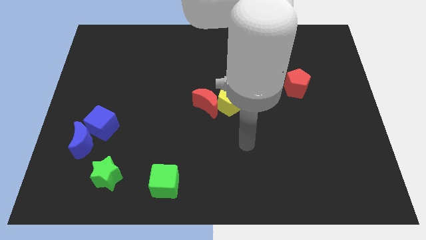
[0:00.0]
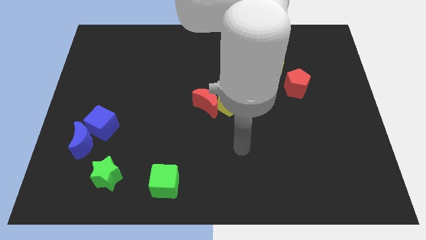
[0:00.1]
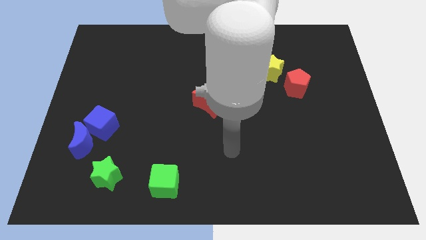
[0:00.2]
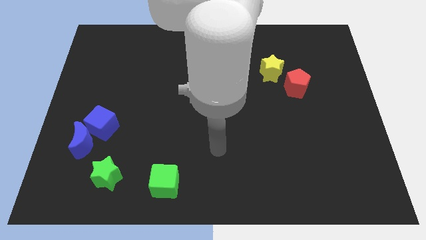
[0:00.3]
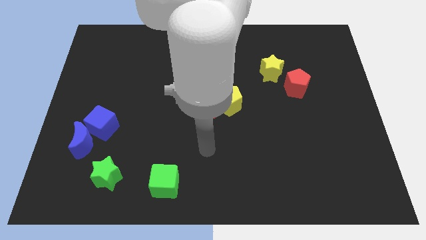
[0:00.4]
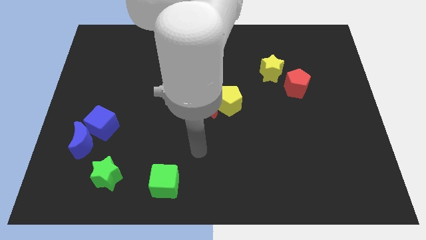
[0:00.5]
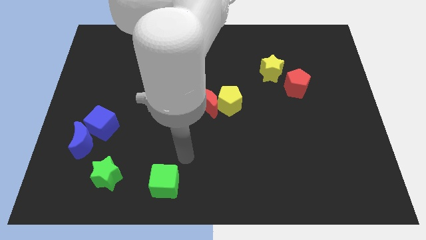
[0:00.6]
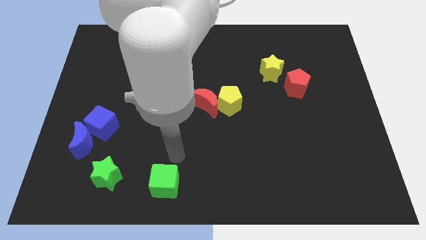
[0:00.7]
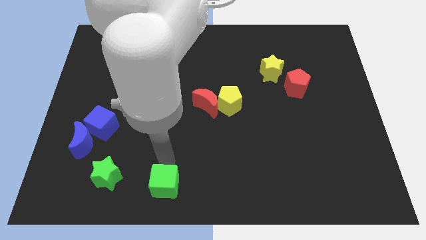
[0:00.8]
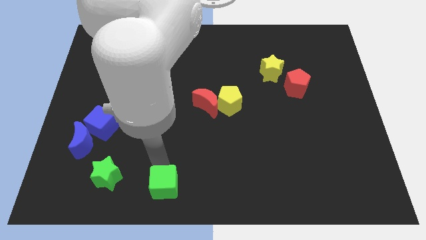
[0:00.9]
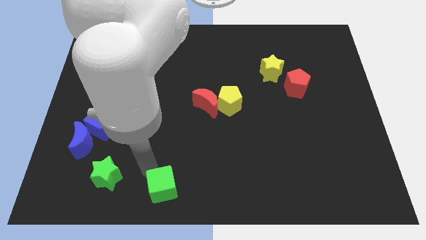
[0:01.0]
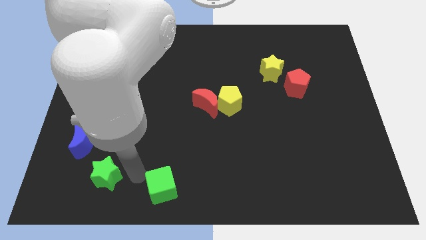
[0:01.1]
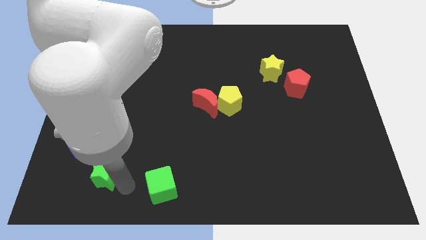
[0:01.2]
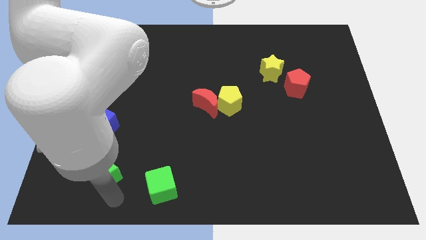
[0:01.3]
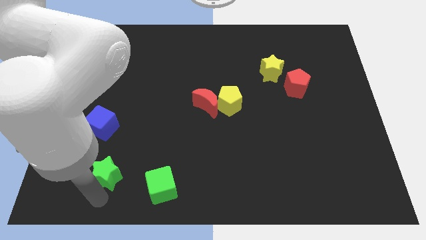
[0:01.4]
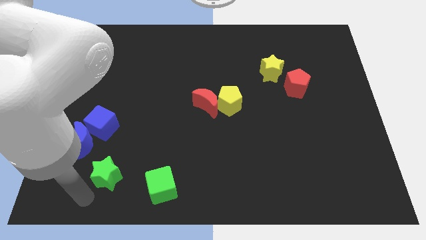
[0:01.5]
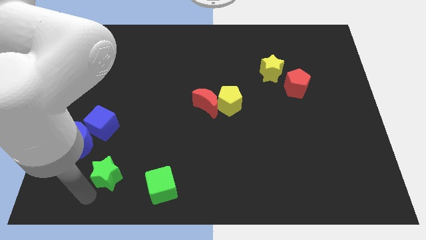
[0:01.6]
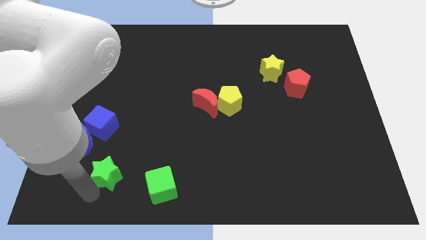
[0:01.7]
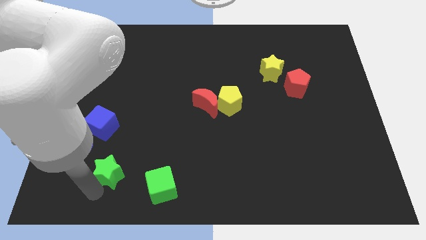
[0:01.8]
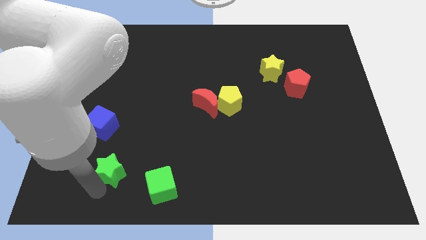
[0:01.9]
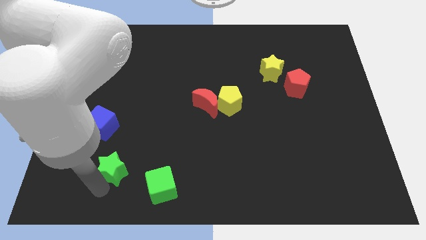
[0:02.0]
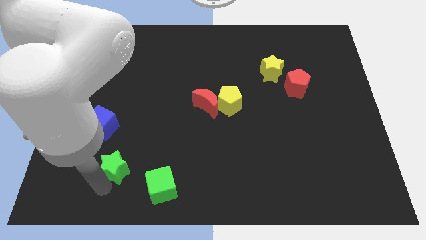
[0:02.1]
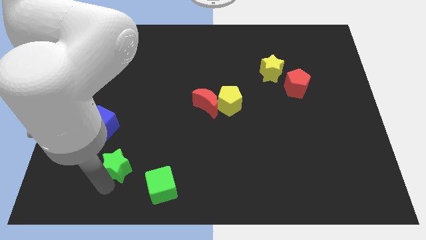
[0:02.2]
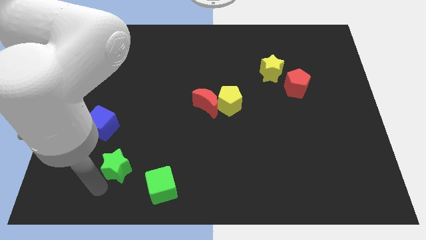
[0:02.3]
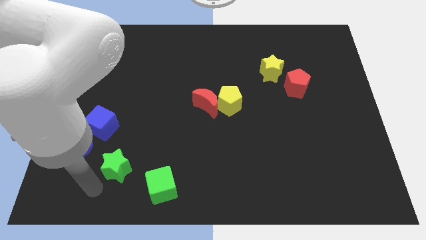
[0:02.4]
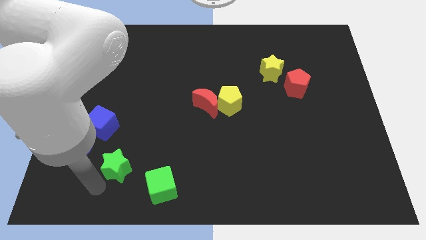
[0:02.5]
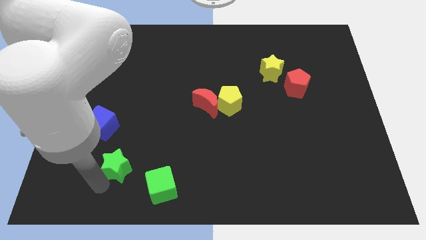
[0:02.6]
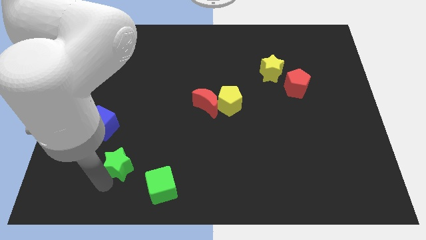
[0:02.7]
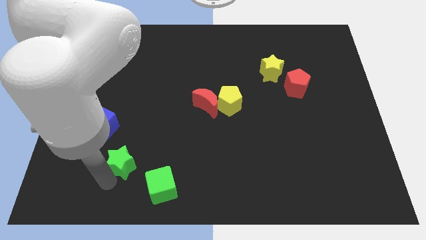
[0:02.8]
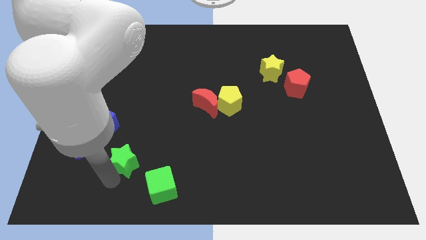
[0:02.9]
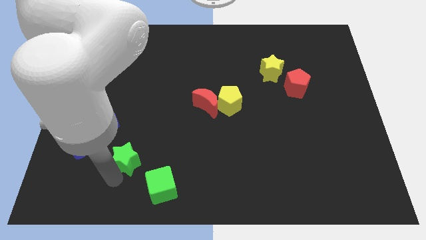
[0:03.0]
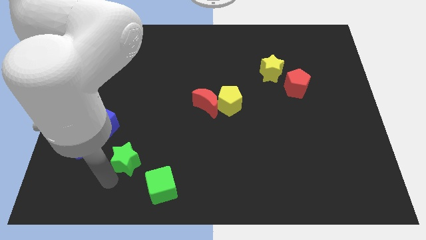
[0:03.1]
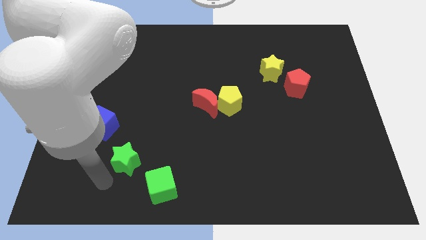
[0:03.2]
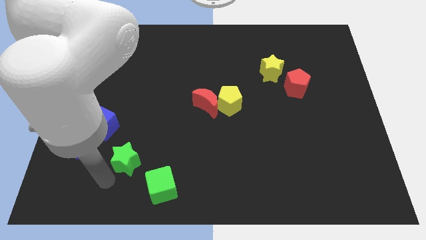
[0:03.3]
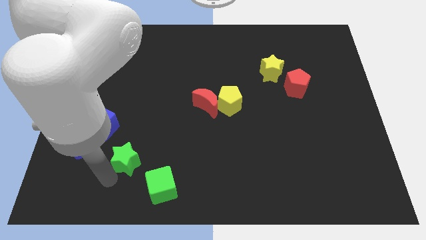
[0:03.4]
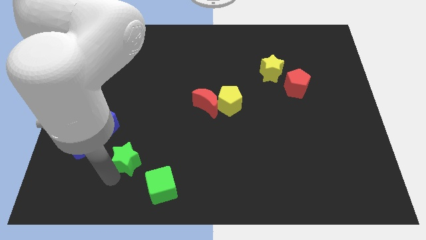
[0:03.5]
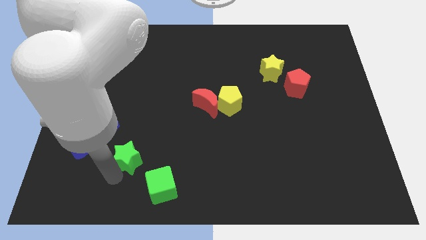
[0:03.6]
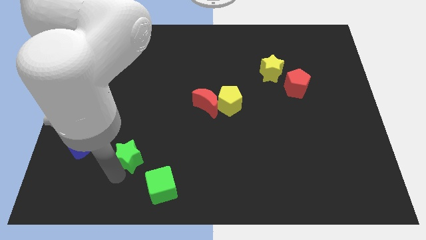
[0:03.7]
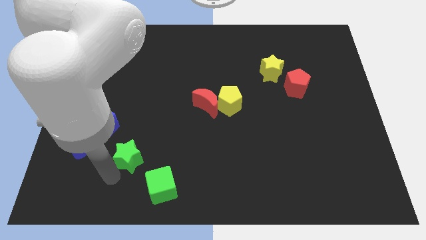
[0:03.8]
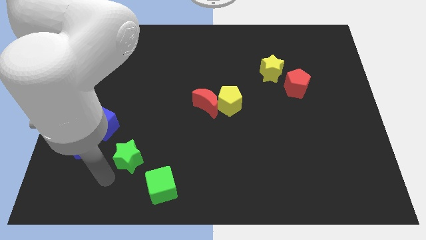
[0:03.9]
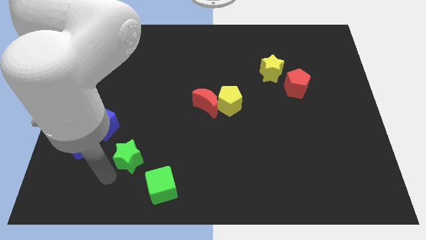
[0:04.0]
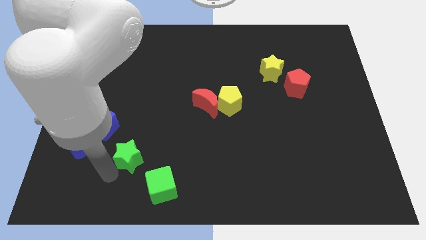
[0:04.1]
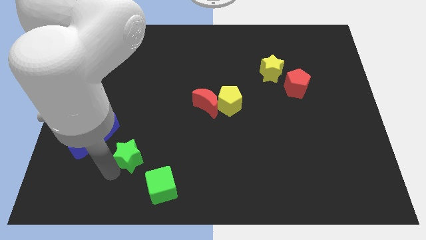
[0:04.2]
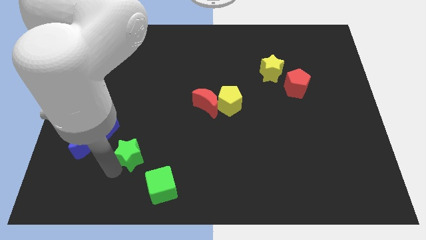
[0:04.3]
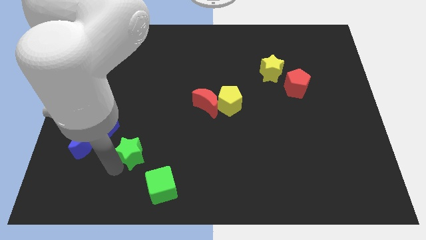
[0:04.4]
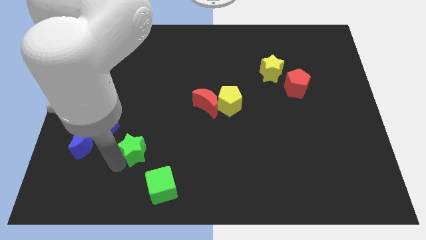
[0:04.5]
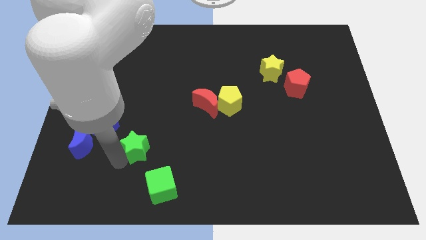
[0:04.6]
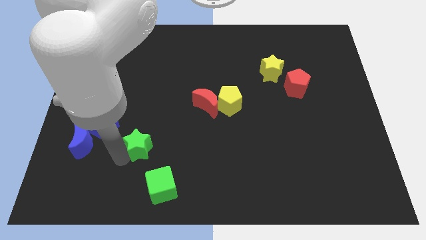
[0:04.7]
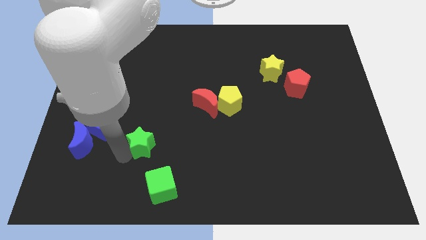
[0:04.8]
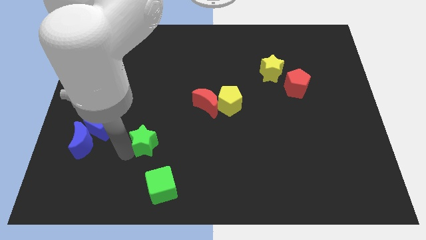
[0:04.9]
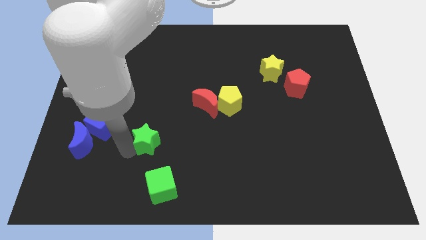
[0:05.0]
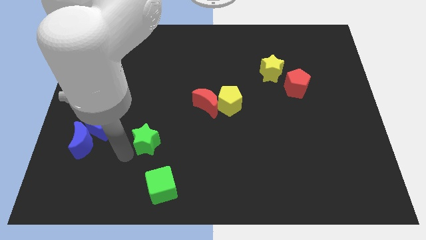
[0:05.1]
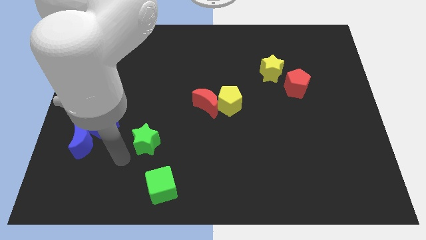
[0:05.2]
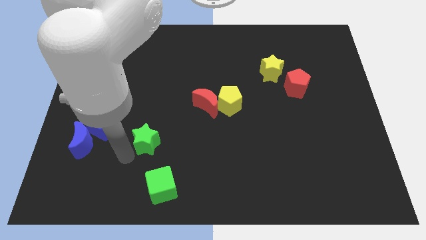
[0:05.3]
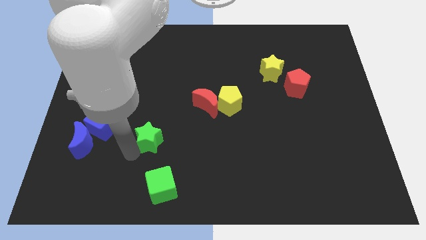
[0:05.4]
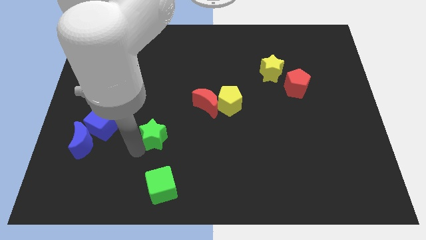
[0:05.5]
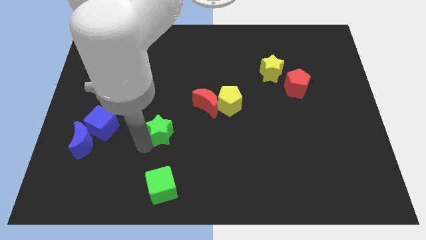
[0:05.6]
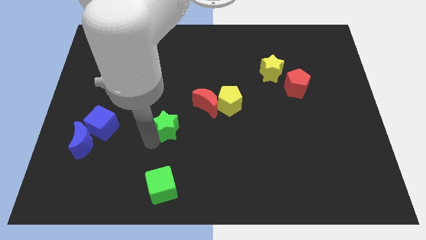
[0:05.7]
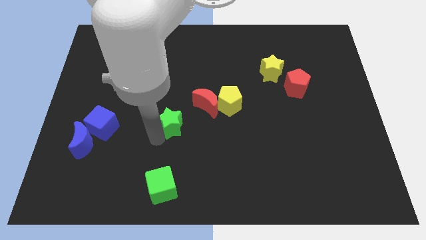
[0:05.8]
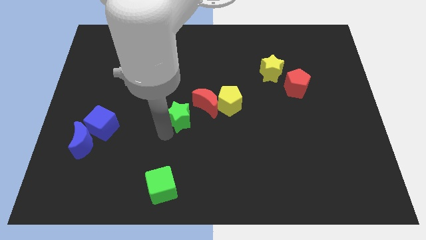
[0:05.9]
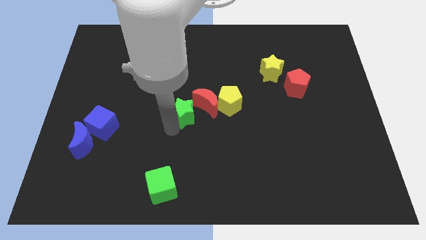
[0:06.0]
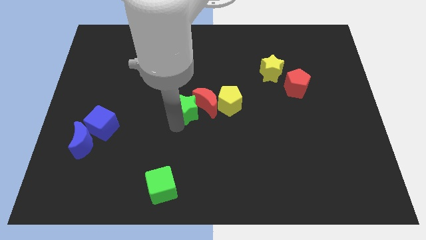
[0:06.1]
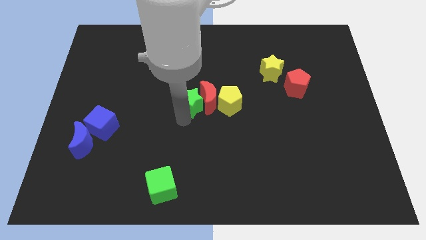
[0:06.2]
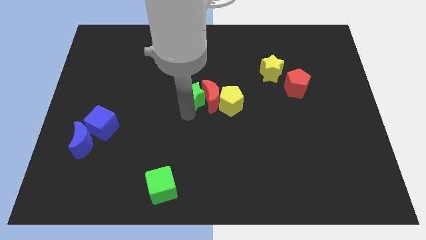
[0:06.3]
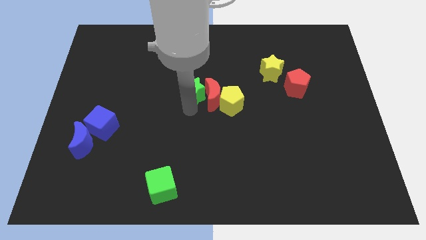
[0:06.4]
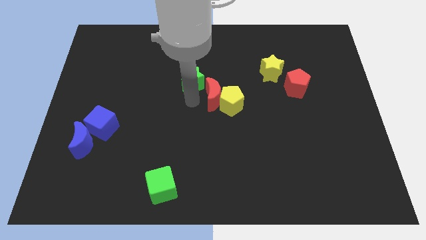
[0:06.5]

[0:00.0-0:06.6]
put the green star to the top side of the red moon

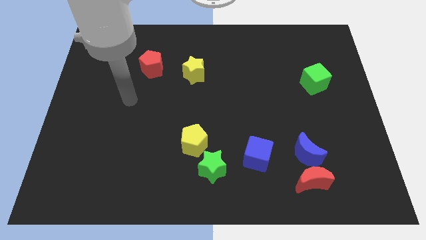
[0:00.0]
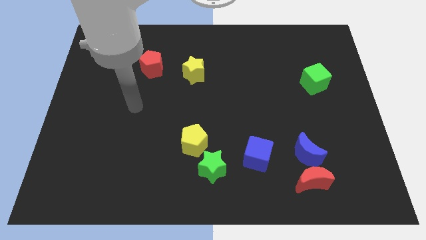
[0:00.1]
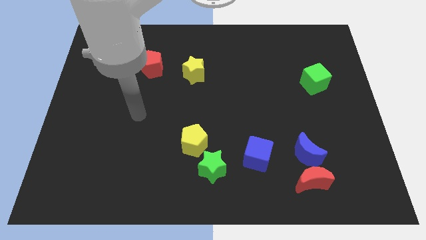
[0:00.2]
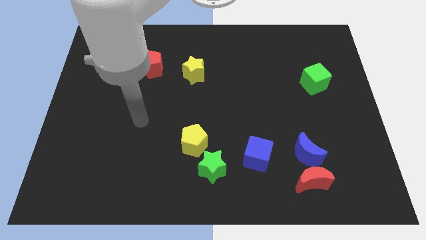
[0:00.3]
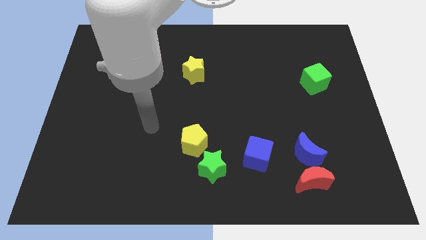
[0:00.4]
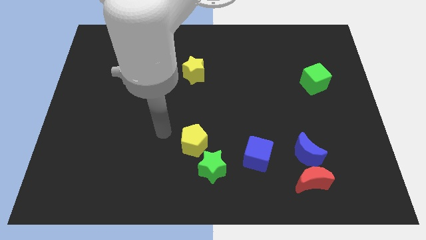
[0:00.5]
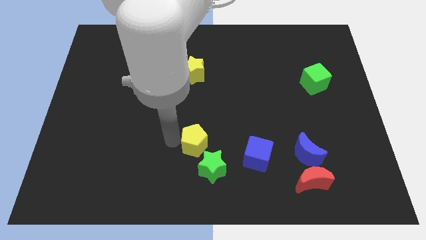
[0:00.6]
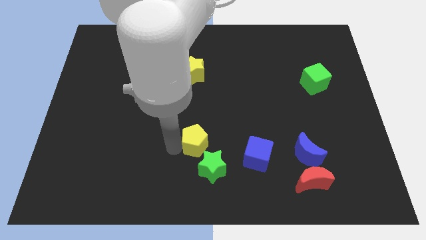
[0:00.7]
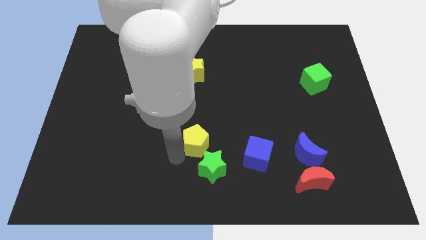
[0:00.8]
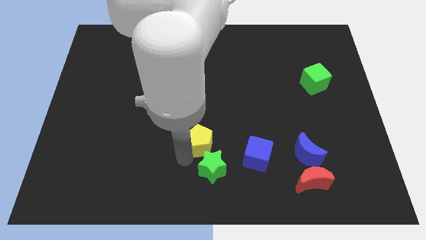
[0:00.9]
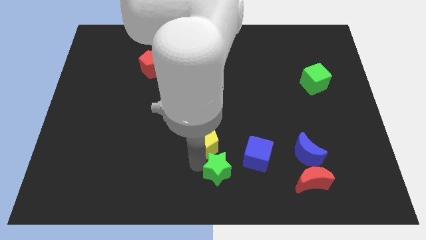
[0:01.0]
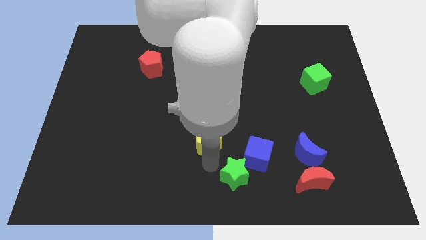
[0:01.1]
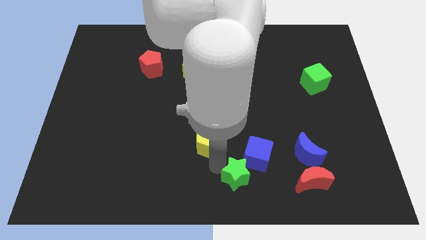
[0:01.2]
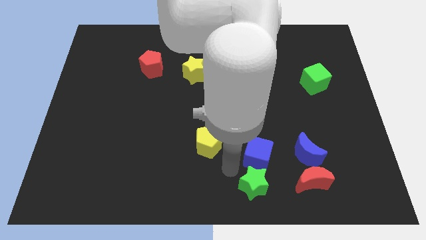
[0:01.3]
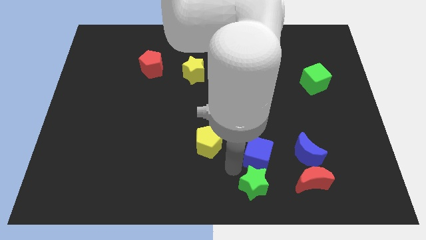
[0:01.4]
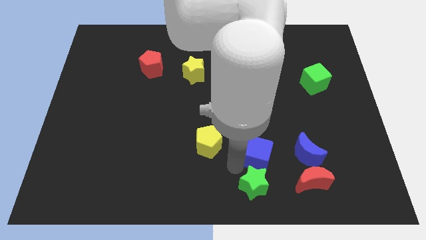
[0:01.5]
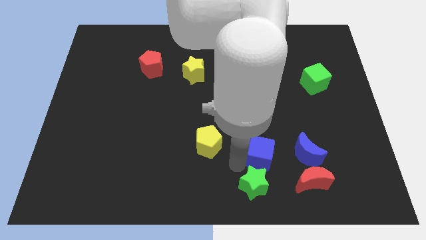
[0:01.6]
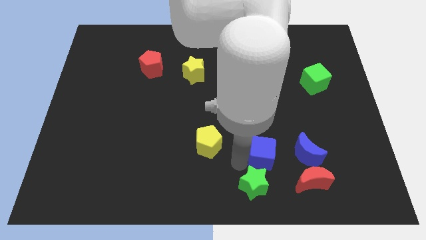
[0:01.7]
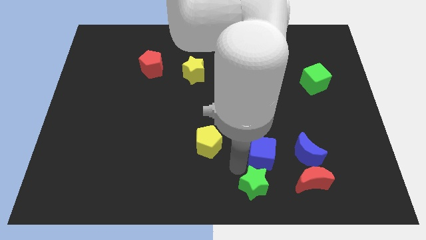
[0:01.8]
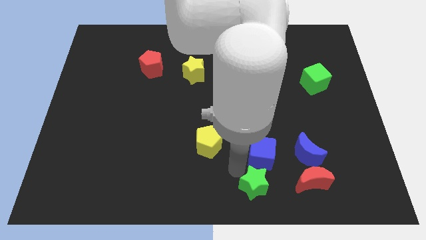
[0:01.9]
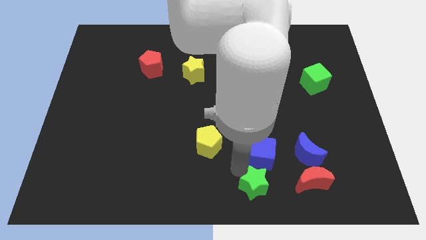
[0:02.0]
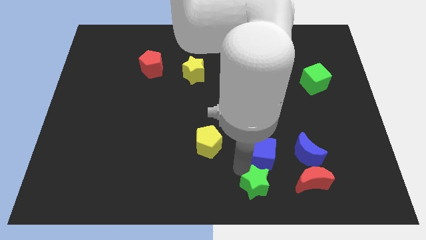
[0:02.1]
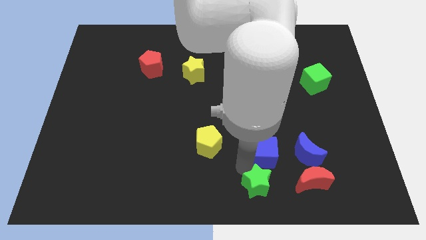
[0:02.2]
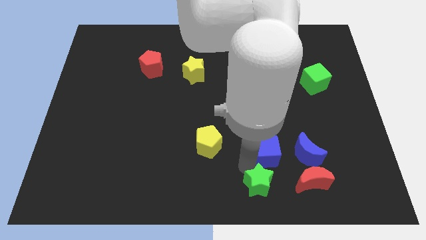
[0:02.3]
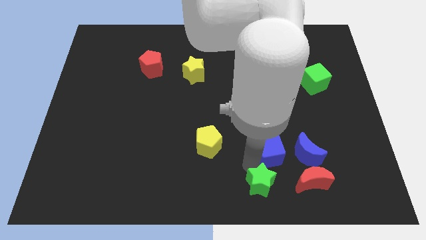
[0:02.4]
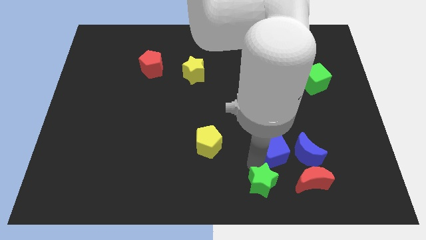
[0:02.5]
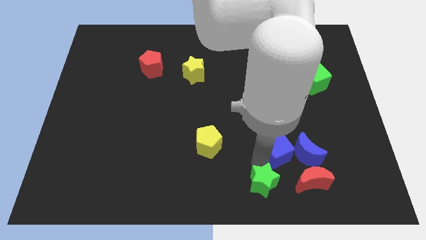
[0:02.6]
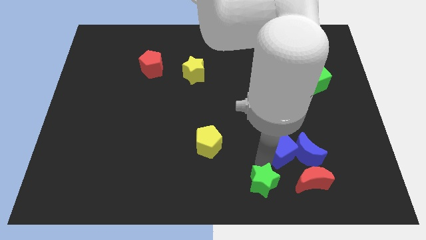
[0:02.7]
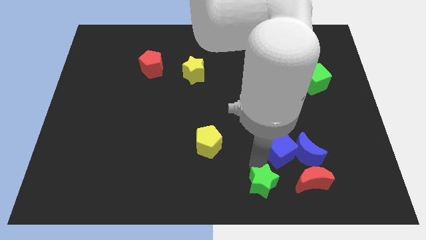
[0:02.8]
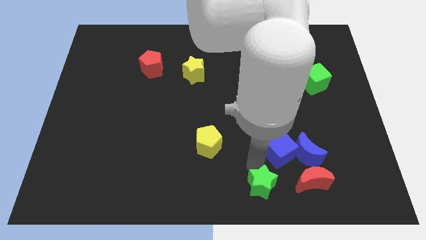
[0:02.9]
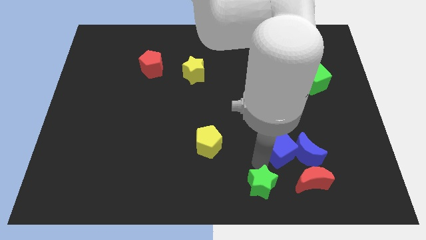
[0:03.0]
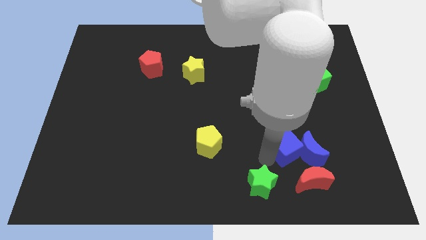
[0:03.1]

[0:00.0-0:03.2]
slide the blue cube to the top side of the red moon
